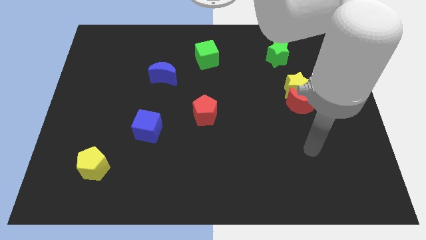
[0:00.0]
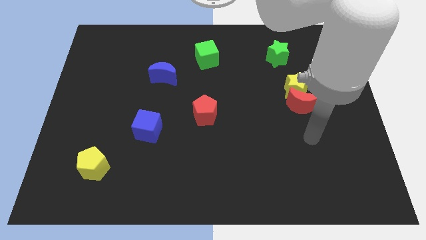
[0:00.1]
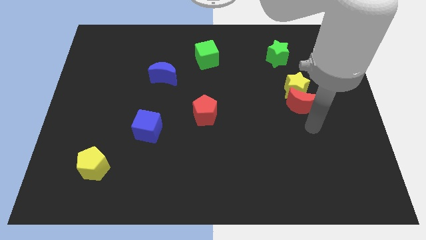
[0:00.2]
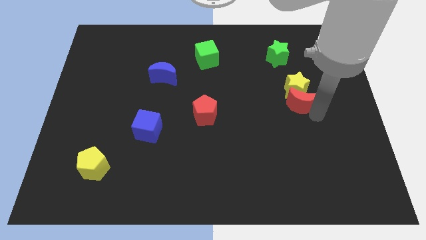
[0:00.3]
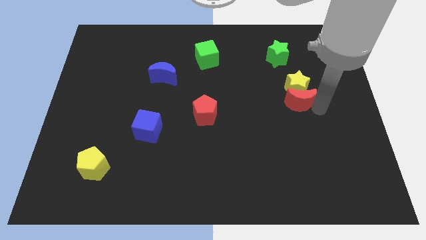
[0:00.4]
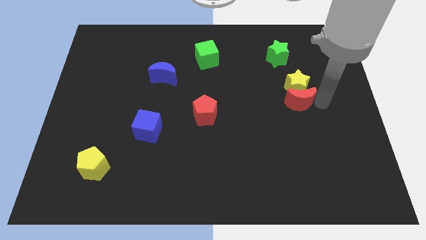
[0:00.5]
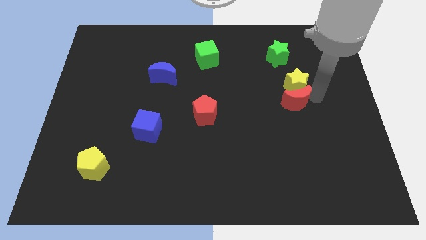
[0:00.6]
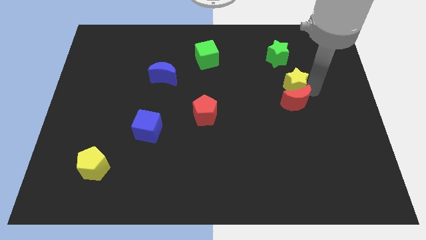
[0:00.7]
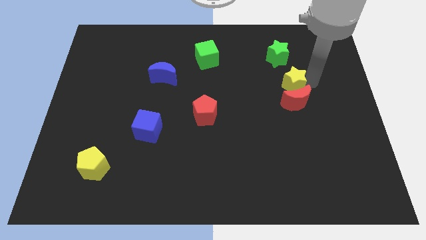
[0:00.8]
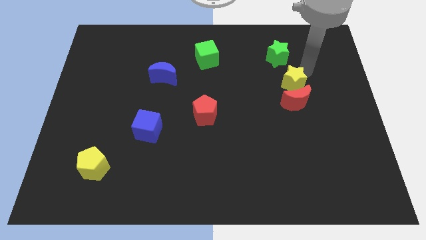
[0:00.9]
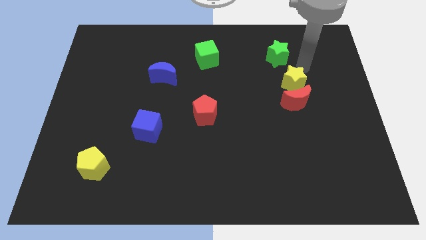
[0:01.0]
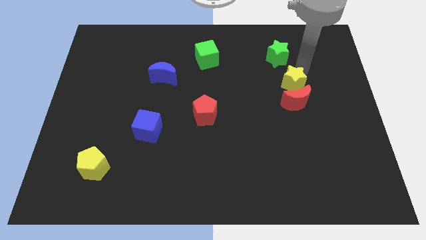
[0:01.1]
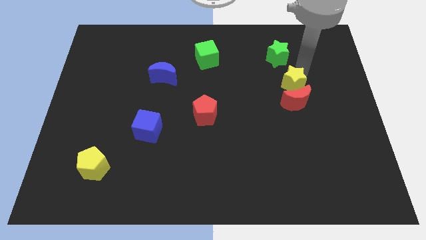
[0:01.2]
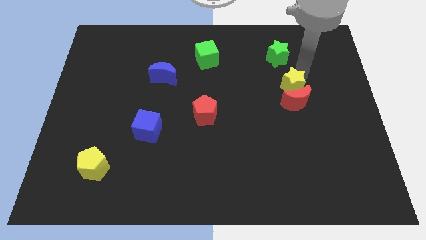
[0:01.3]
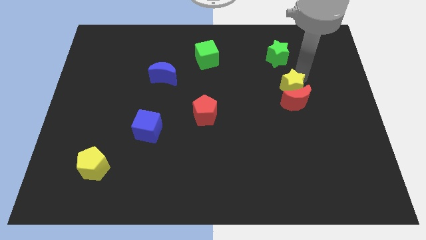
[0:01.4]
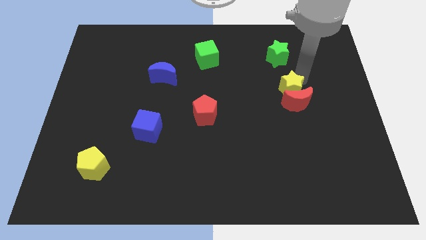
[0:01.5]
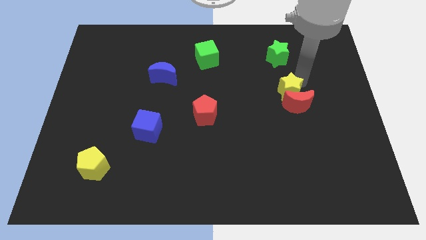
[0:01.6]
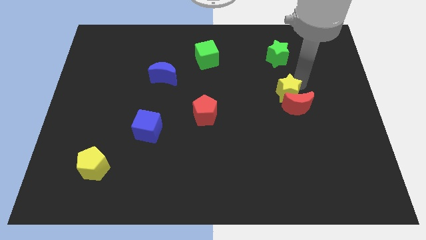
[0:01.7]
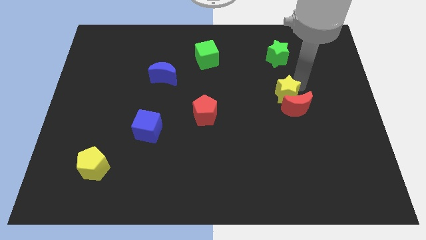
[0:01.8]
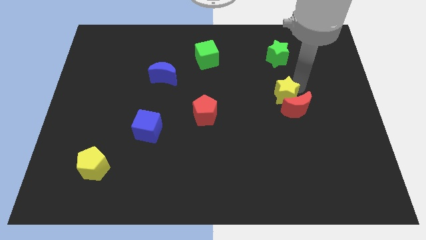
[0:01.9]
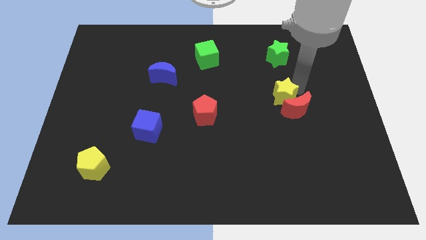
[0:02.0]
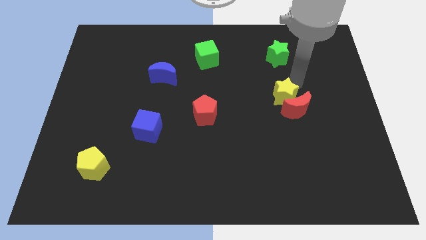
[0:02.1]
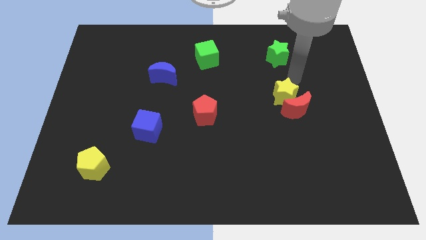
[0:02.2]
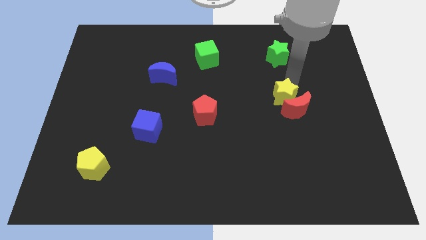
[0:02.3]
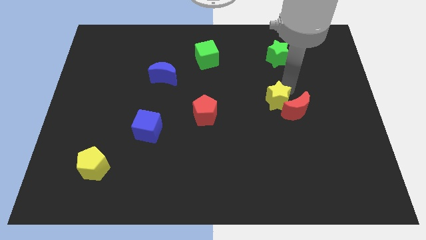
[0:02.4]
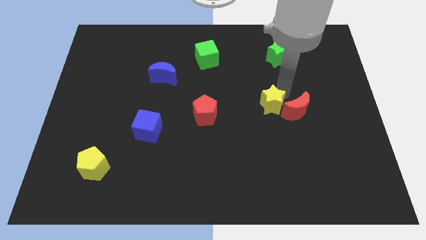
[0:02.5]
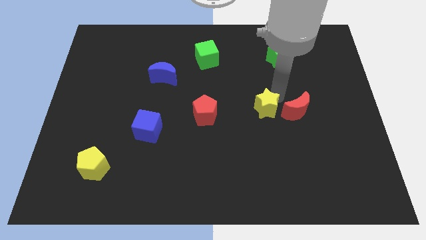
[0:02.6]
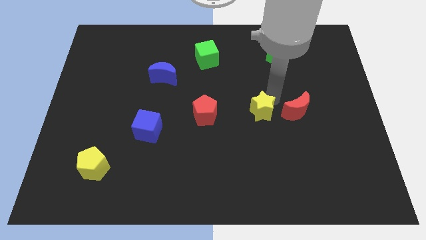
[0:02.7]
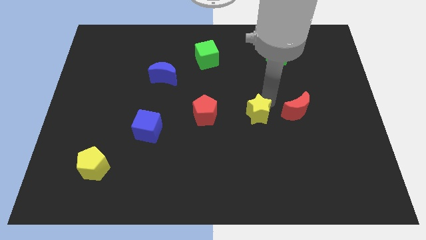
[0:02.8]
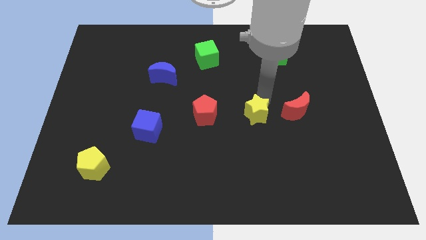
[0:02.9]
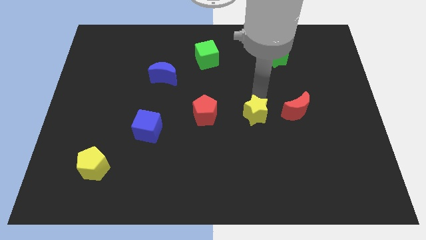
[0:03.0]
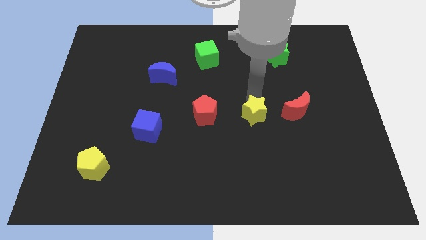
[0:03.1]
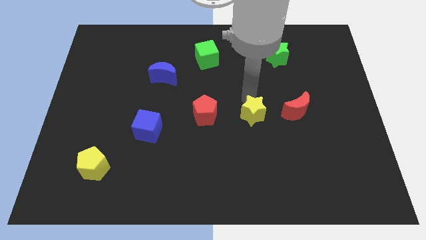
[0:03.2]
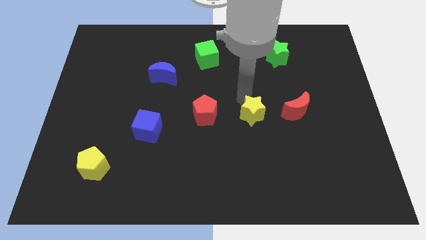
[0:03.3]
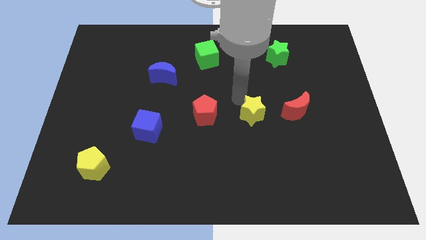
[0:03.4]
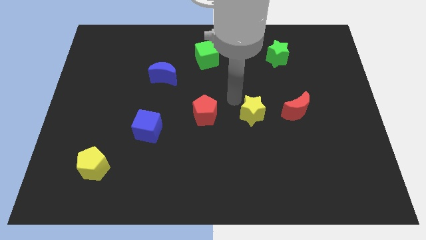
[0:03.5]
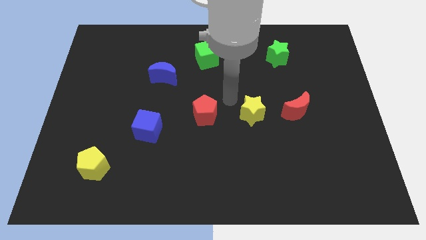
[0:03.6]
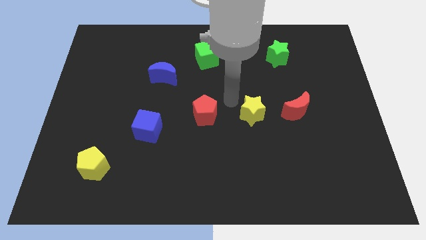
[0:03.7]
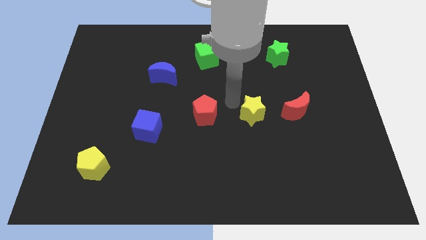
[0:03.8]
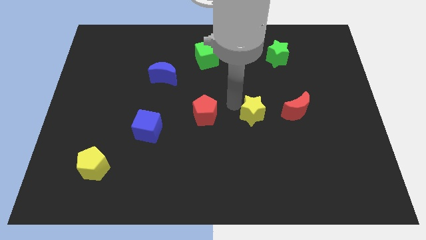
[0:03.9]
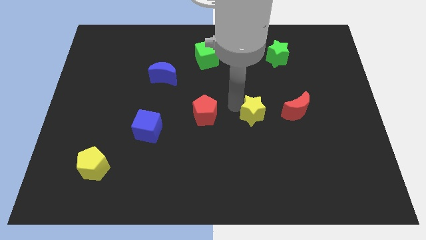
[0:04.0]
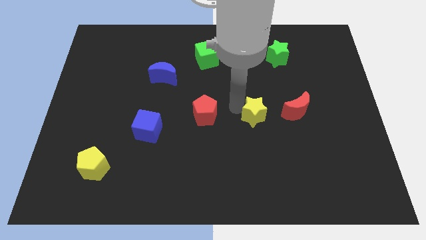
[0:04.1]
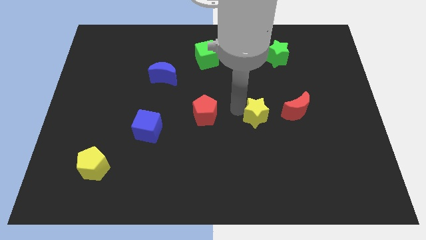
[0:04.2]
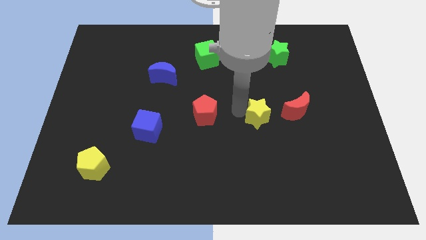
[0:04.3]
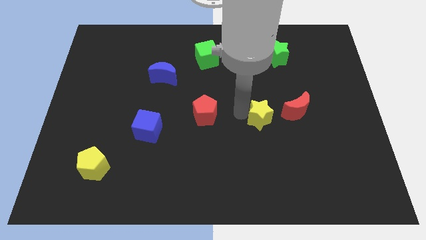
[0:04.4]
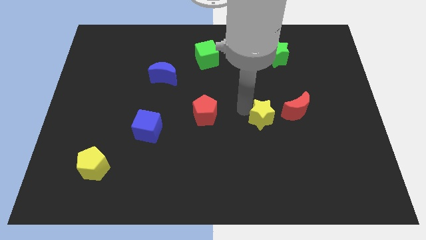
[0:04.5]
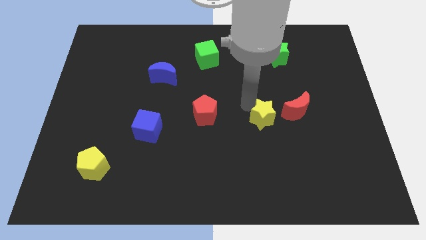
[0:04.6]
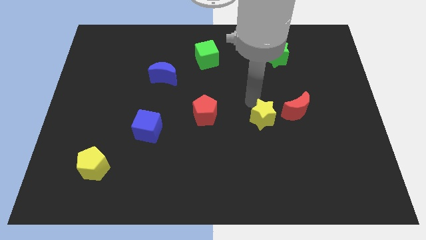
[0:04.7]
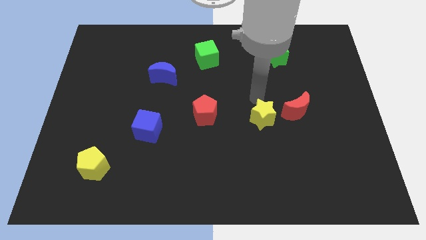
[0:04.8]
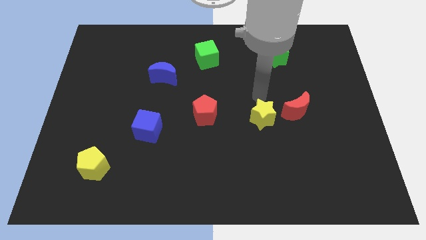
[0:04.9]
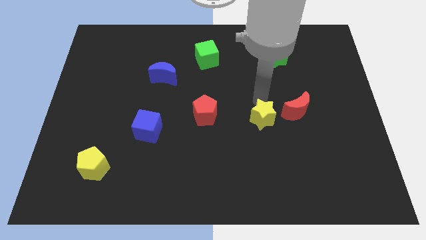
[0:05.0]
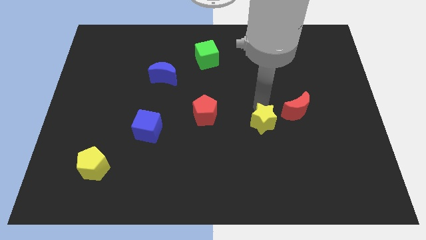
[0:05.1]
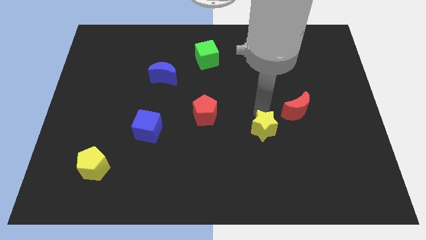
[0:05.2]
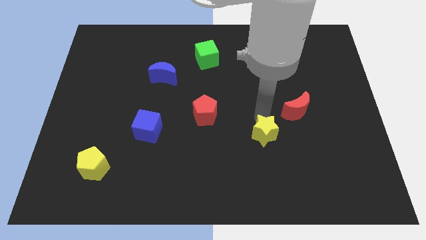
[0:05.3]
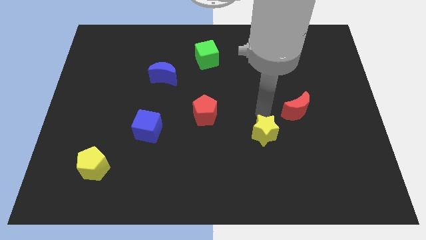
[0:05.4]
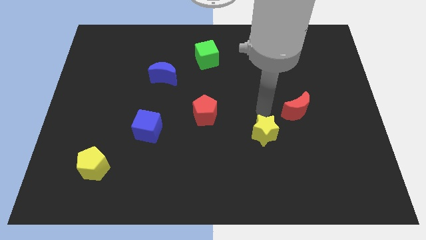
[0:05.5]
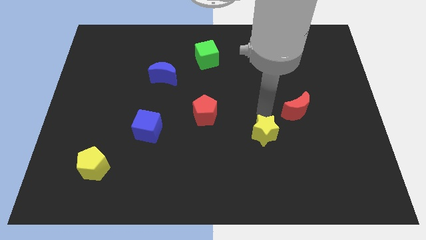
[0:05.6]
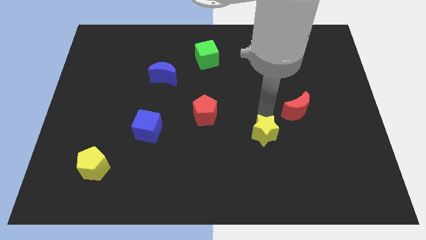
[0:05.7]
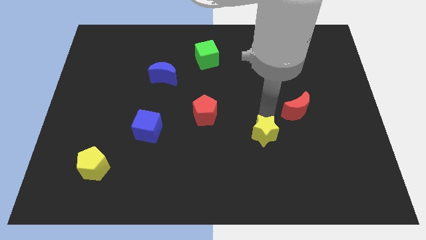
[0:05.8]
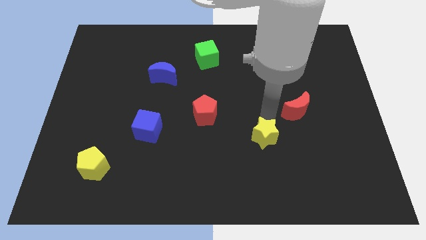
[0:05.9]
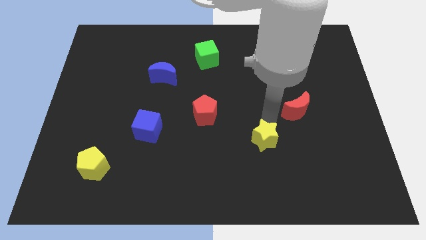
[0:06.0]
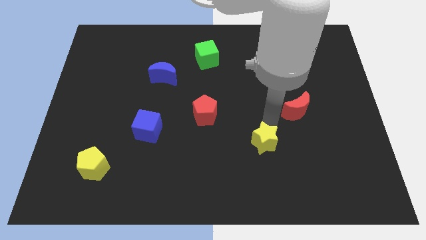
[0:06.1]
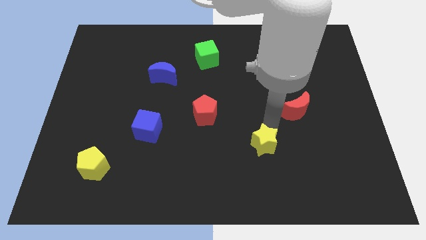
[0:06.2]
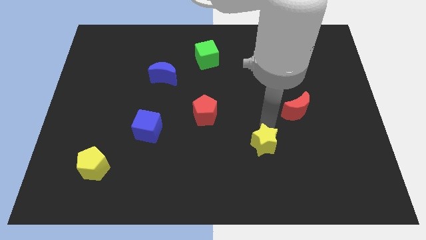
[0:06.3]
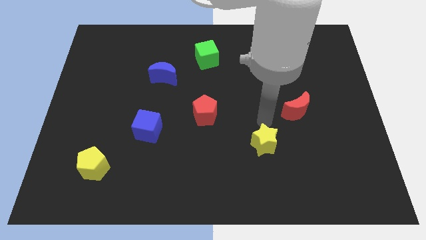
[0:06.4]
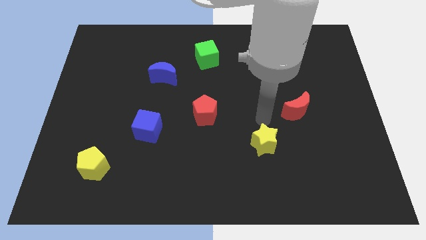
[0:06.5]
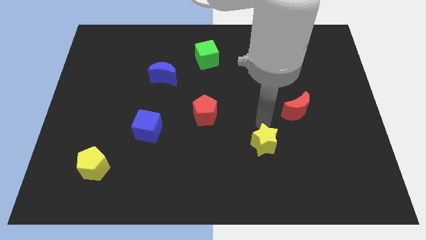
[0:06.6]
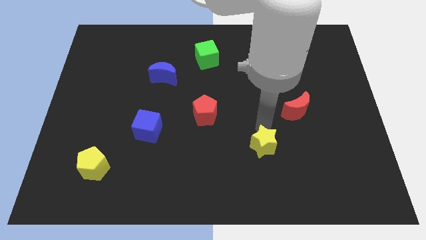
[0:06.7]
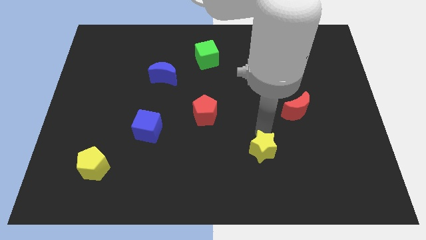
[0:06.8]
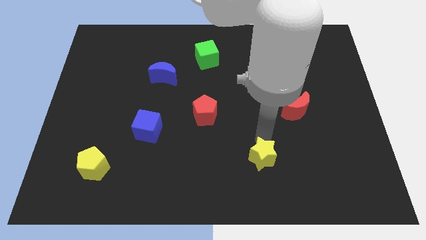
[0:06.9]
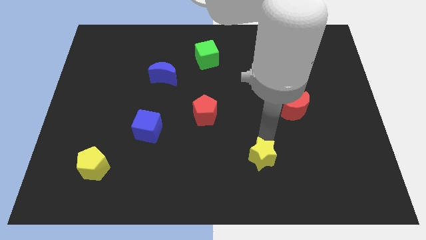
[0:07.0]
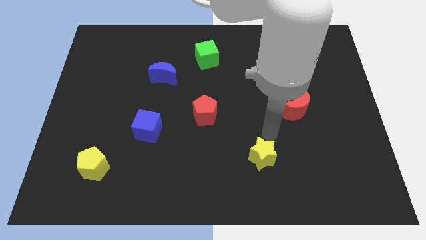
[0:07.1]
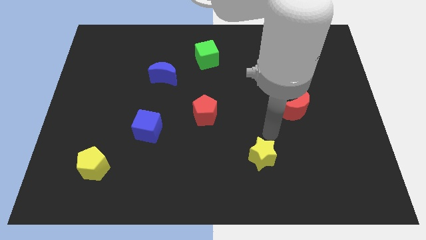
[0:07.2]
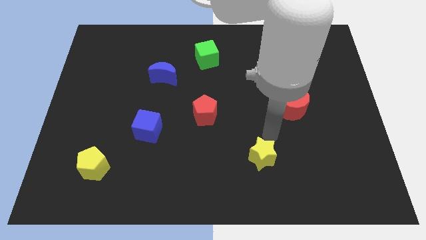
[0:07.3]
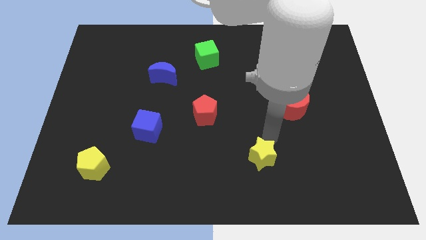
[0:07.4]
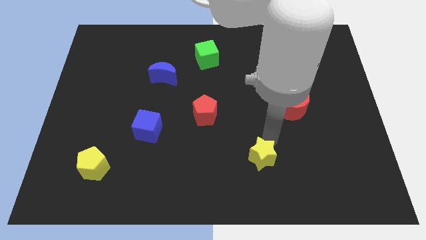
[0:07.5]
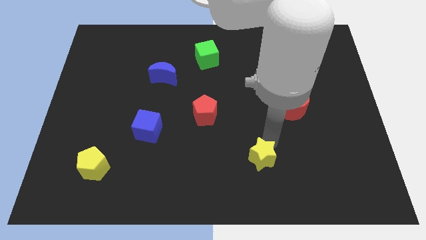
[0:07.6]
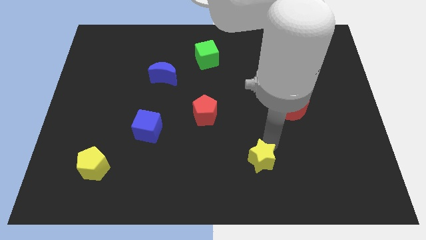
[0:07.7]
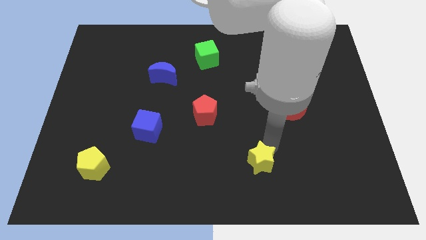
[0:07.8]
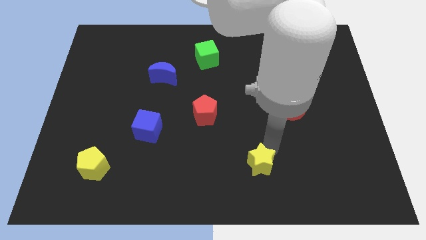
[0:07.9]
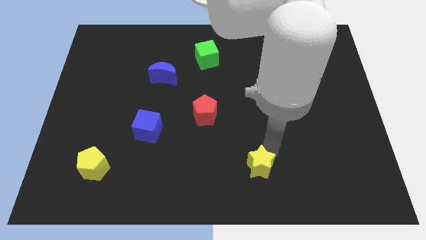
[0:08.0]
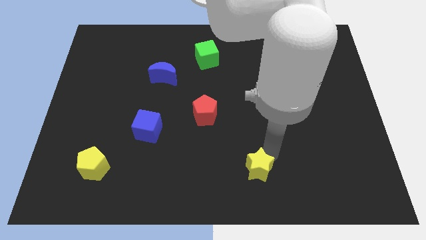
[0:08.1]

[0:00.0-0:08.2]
push the yellow star to the bottom
